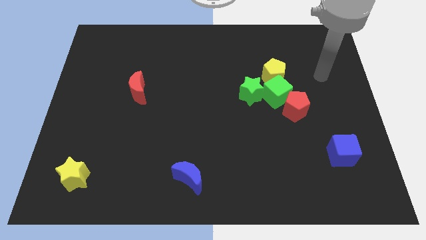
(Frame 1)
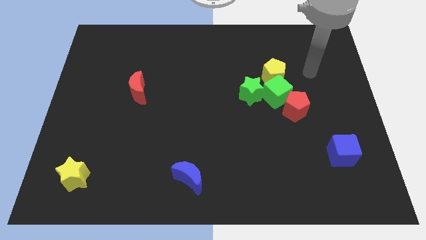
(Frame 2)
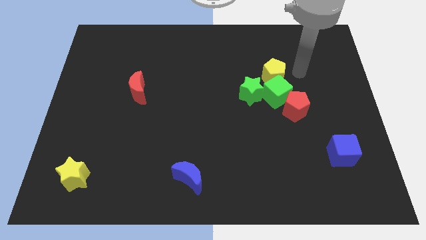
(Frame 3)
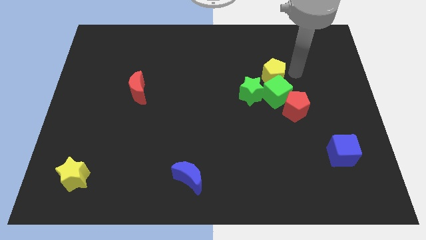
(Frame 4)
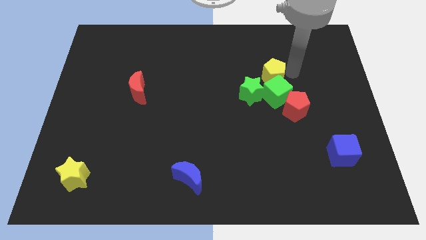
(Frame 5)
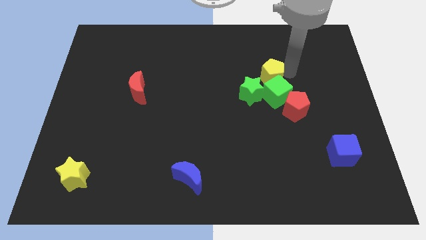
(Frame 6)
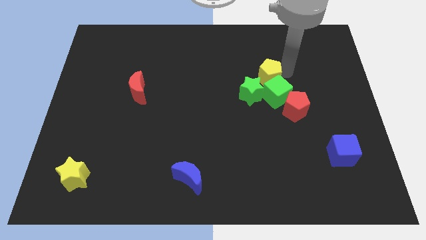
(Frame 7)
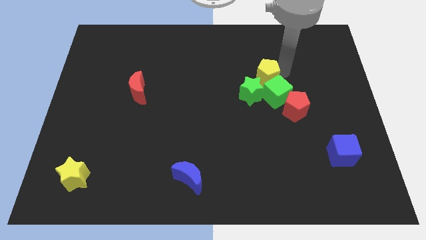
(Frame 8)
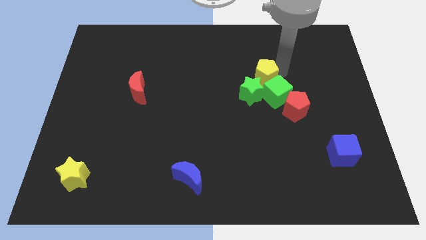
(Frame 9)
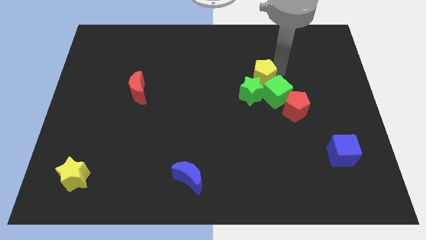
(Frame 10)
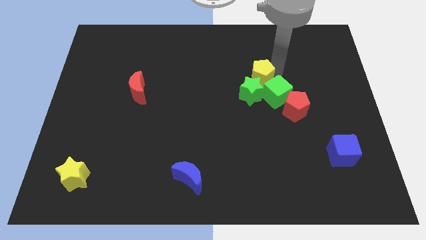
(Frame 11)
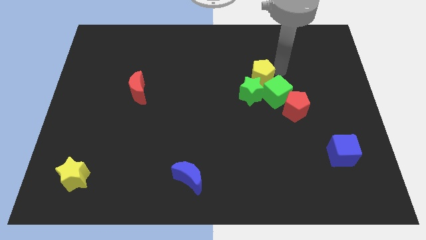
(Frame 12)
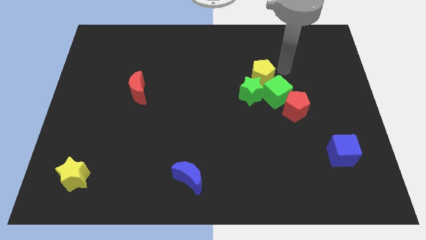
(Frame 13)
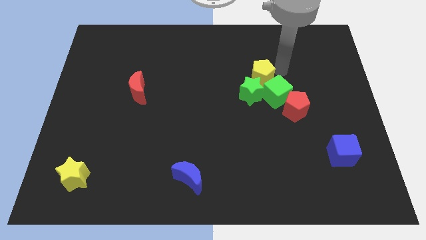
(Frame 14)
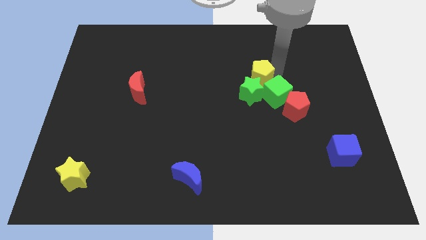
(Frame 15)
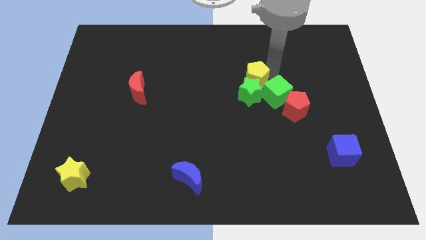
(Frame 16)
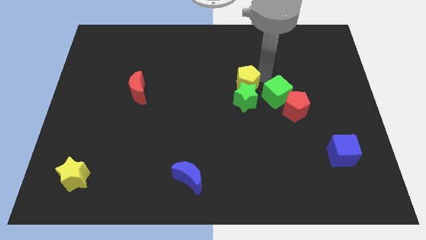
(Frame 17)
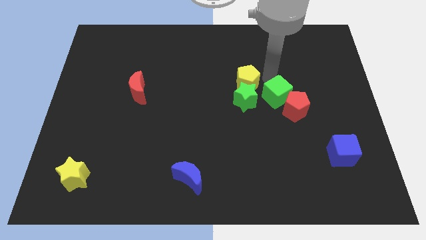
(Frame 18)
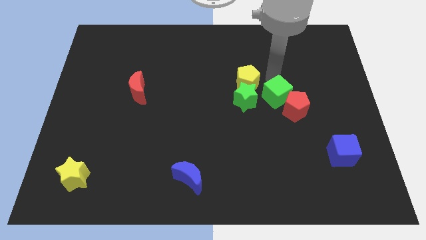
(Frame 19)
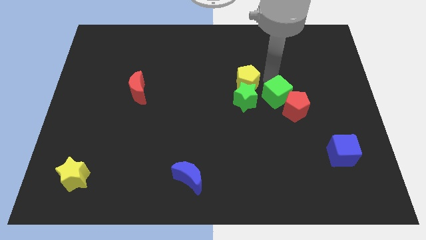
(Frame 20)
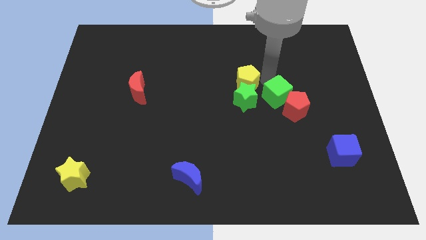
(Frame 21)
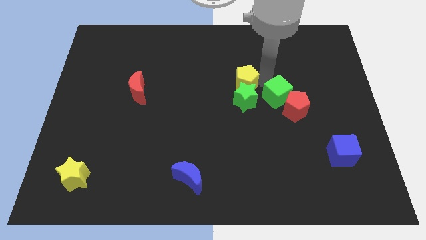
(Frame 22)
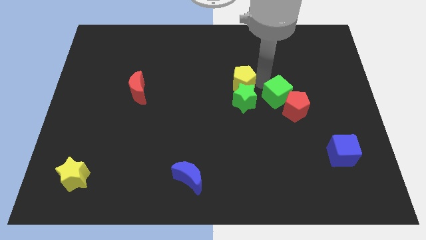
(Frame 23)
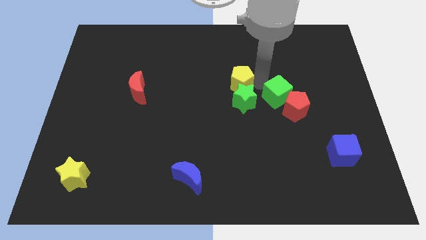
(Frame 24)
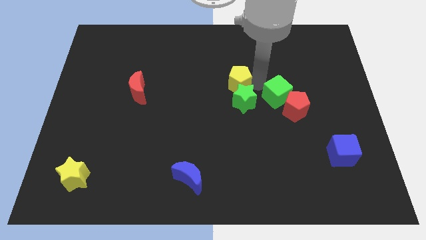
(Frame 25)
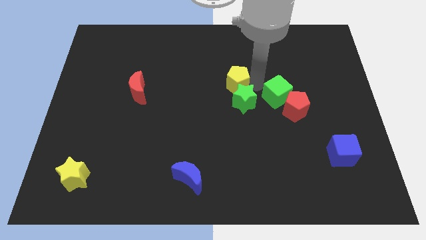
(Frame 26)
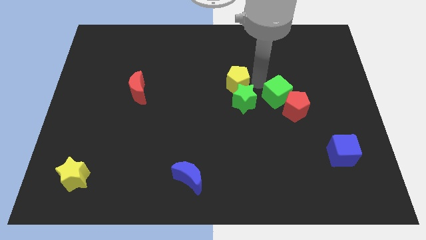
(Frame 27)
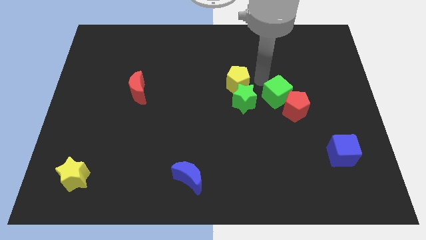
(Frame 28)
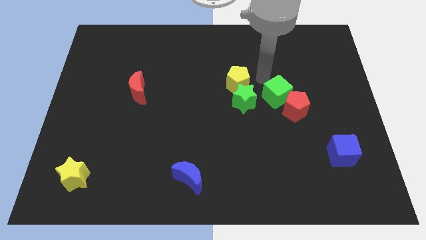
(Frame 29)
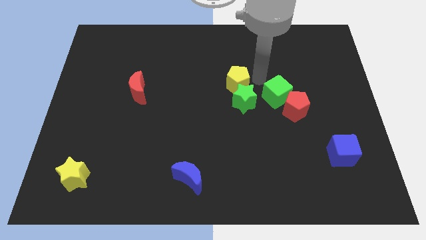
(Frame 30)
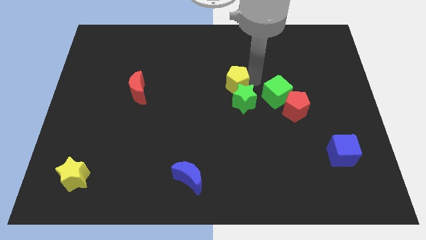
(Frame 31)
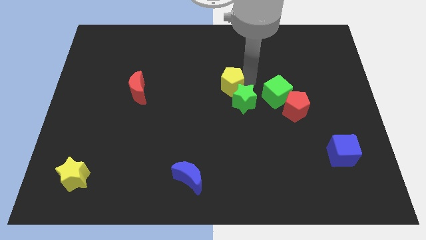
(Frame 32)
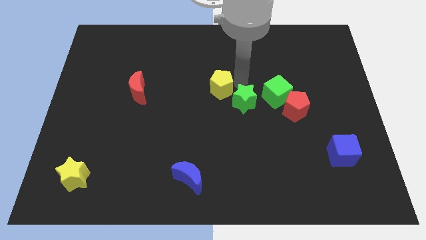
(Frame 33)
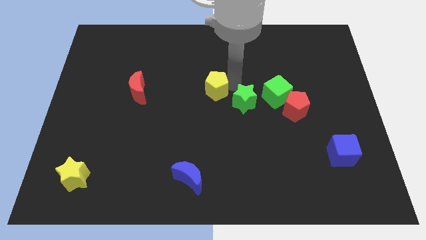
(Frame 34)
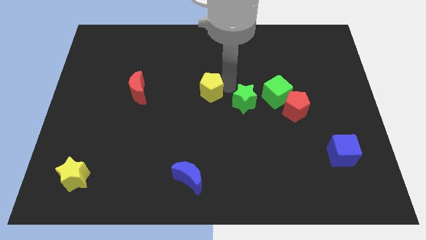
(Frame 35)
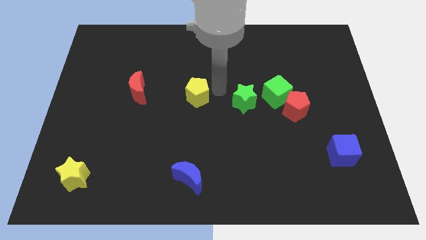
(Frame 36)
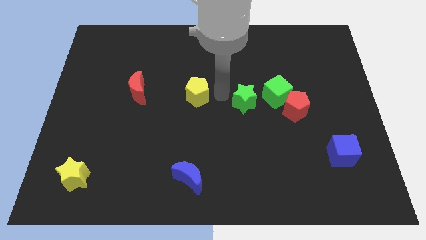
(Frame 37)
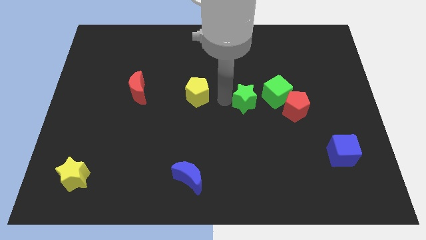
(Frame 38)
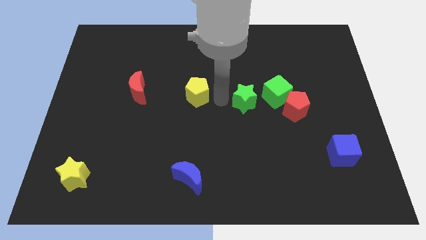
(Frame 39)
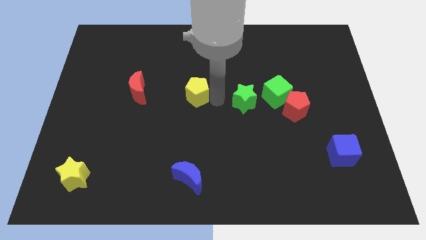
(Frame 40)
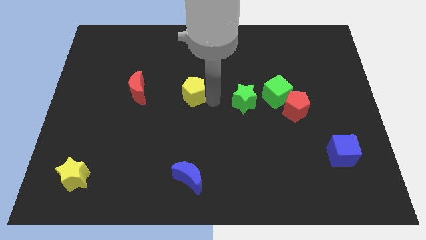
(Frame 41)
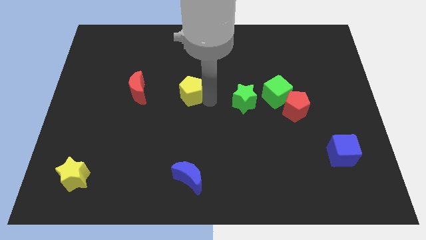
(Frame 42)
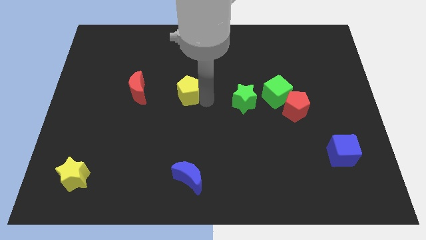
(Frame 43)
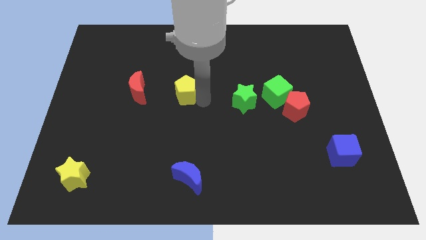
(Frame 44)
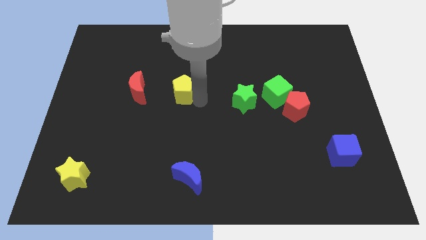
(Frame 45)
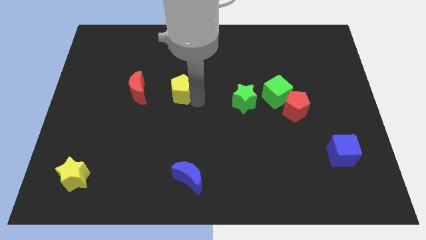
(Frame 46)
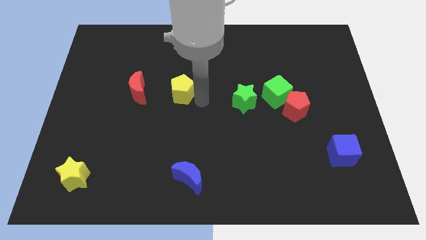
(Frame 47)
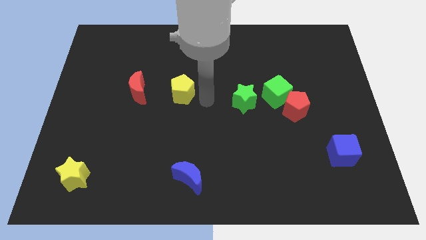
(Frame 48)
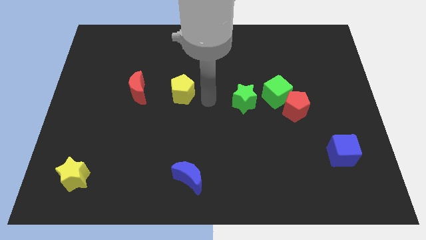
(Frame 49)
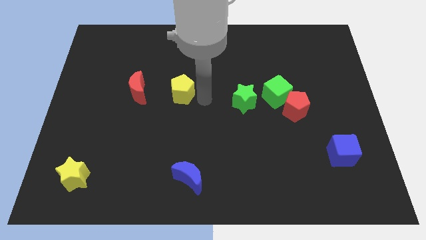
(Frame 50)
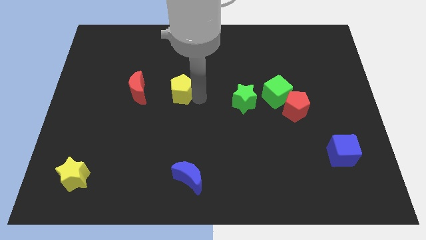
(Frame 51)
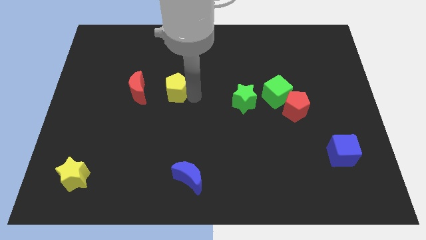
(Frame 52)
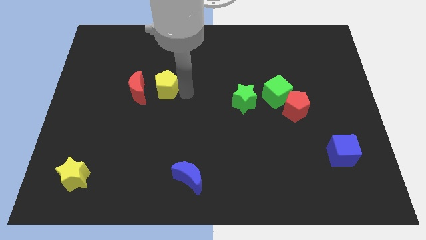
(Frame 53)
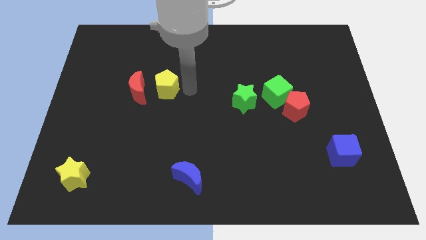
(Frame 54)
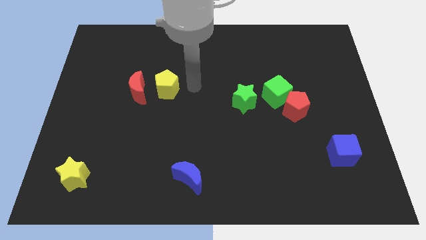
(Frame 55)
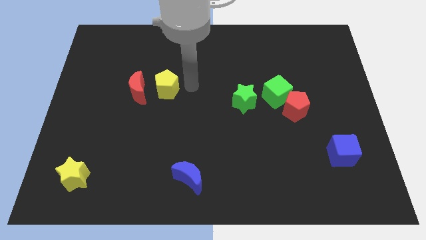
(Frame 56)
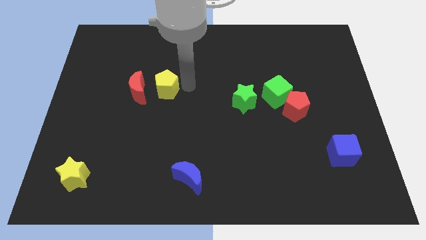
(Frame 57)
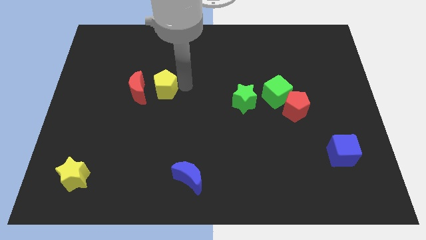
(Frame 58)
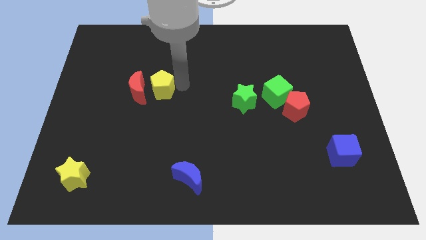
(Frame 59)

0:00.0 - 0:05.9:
put the yellow pentagon to the red moon
